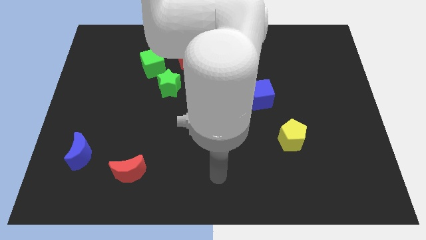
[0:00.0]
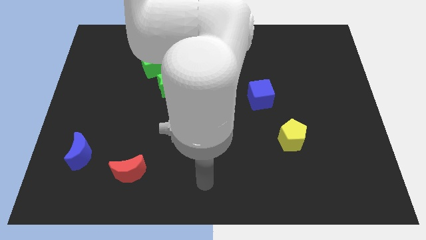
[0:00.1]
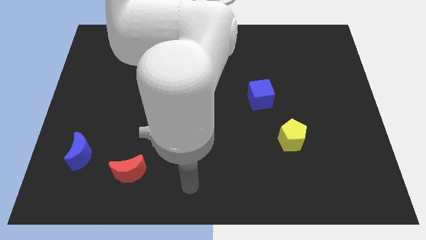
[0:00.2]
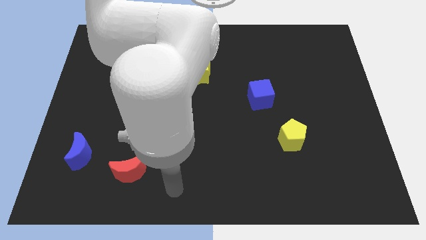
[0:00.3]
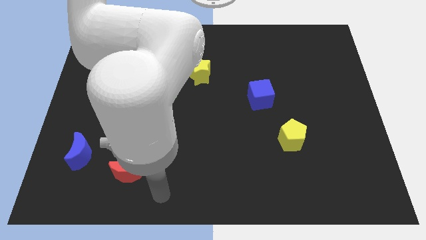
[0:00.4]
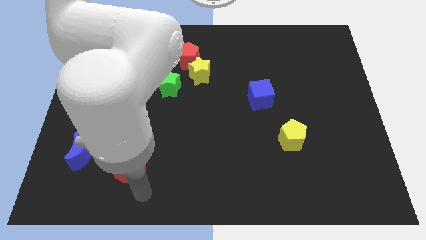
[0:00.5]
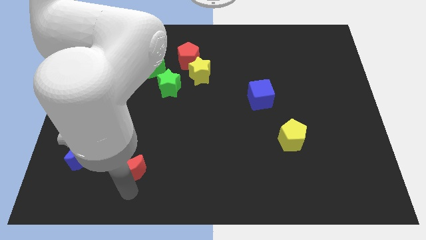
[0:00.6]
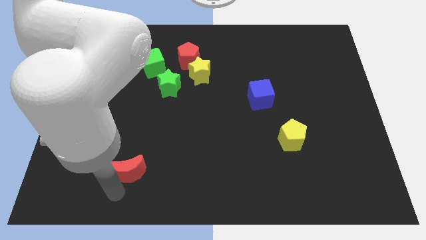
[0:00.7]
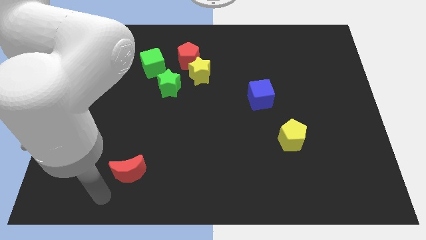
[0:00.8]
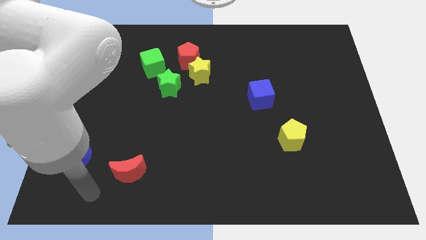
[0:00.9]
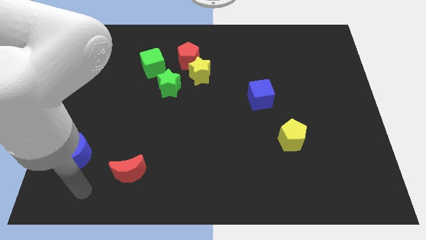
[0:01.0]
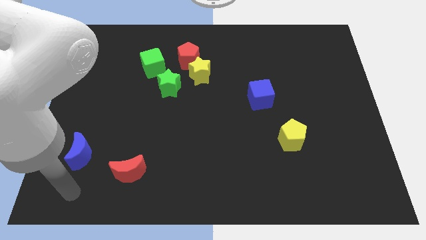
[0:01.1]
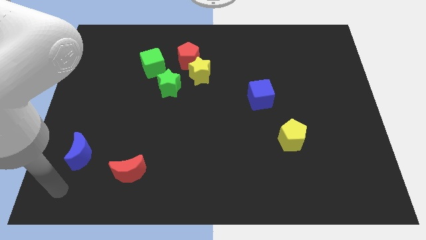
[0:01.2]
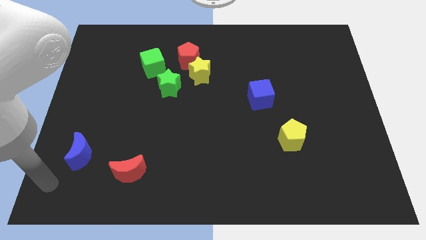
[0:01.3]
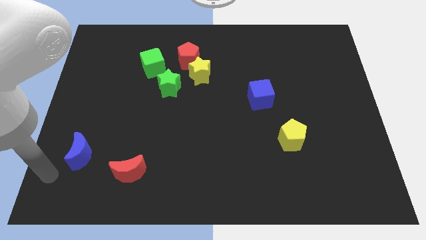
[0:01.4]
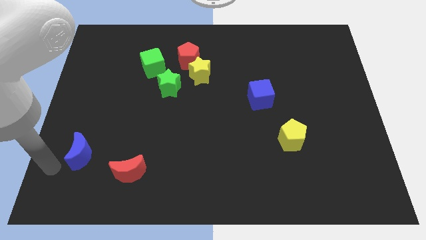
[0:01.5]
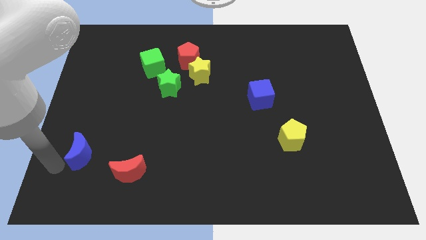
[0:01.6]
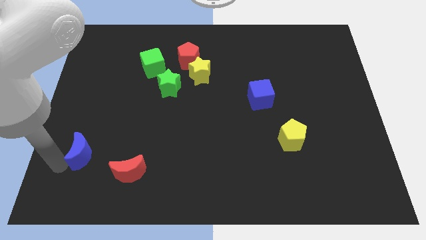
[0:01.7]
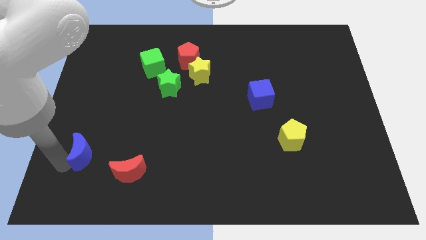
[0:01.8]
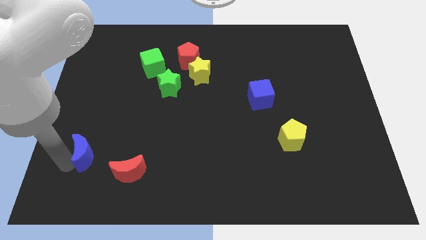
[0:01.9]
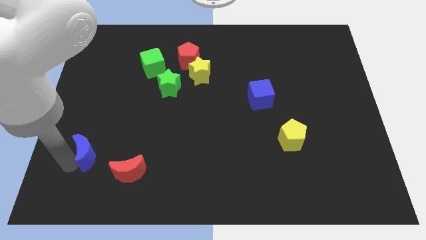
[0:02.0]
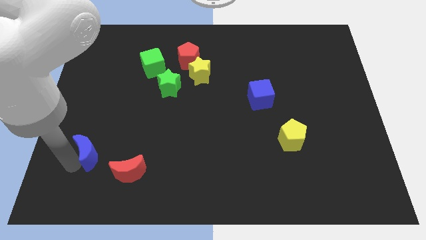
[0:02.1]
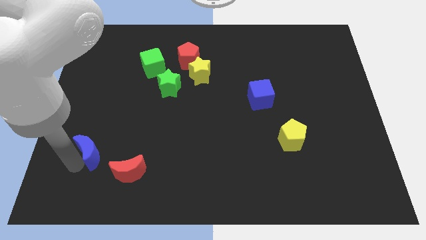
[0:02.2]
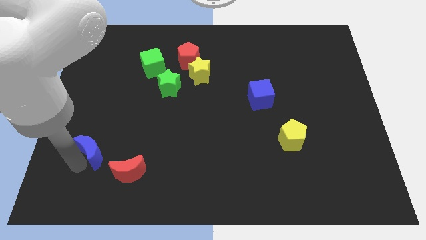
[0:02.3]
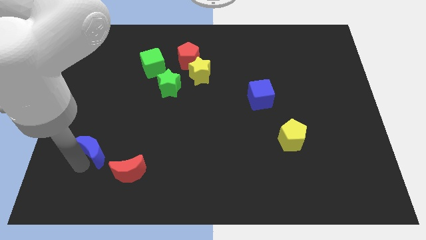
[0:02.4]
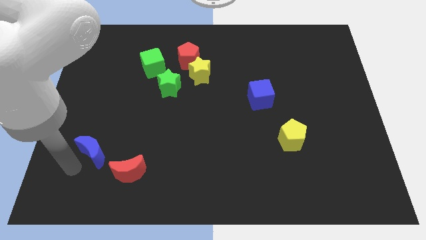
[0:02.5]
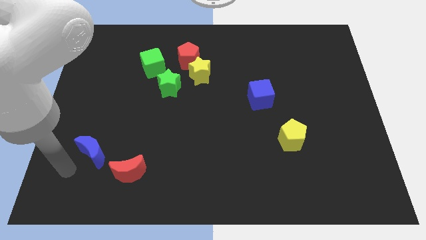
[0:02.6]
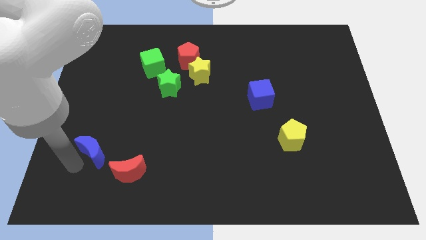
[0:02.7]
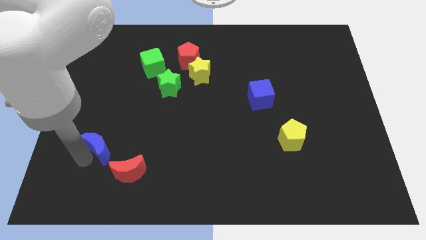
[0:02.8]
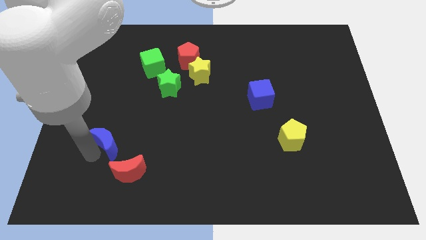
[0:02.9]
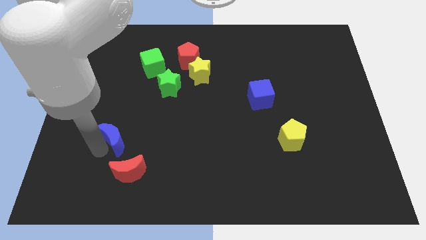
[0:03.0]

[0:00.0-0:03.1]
slightly slide the blue moon upwards and to the right

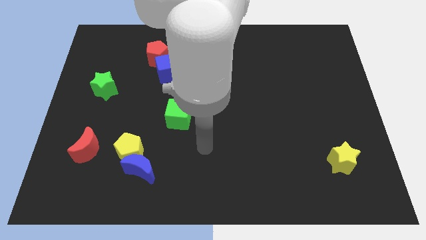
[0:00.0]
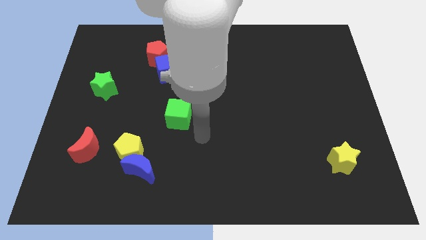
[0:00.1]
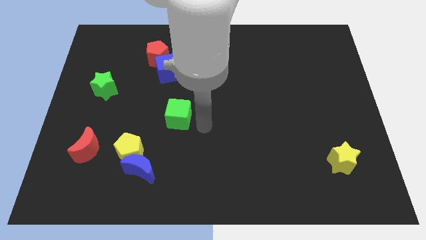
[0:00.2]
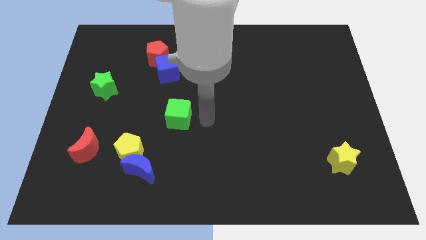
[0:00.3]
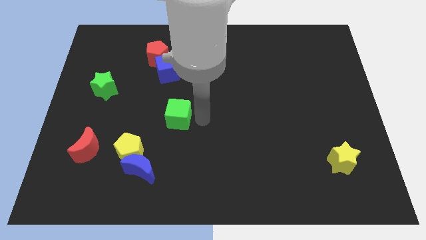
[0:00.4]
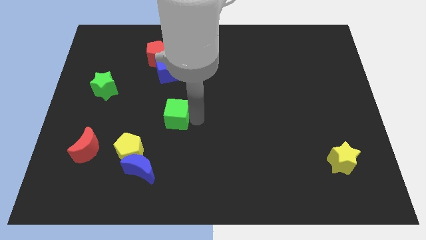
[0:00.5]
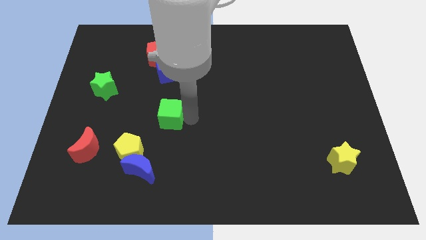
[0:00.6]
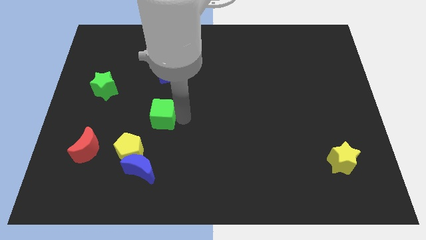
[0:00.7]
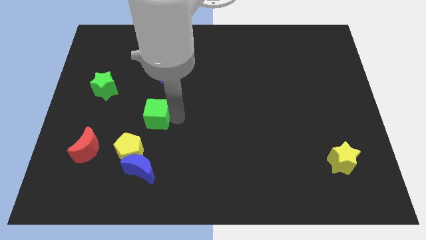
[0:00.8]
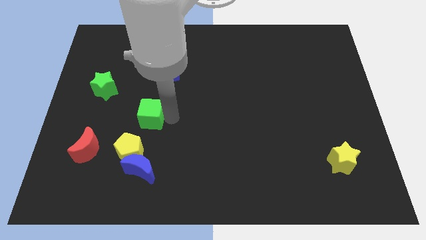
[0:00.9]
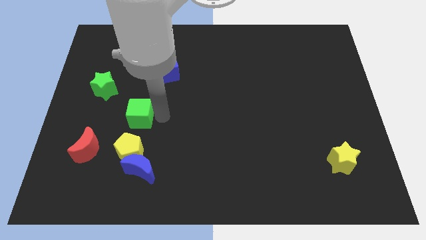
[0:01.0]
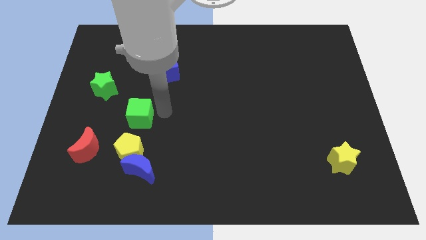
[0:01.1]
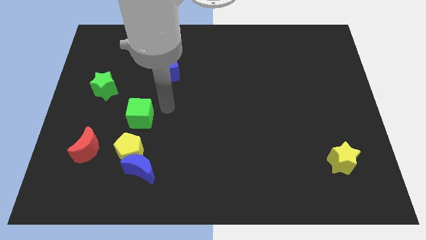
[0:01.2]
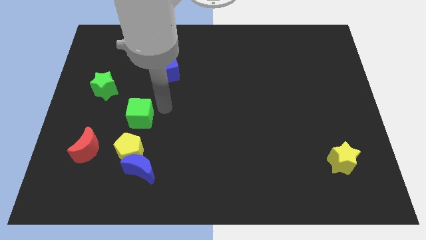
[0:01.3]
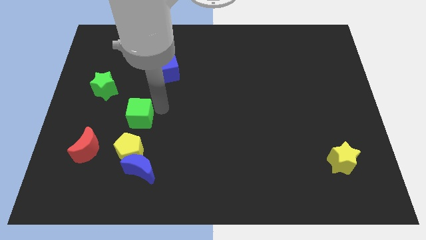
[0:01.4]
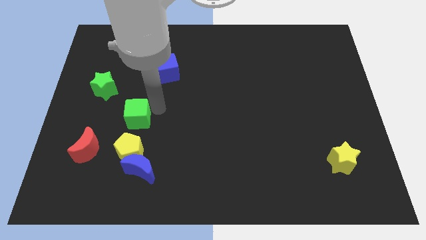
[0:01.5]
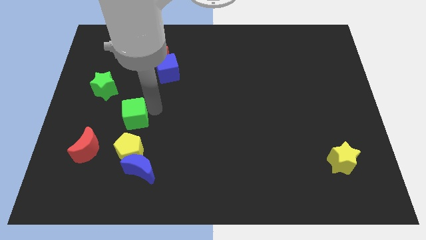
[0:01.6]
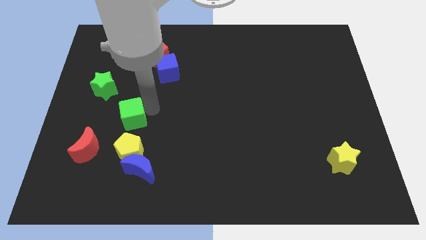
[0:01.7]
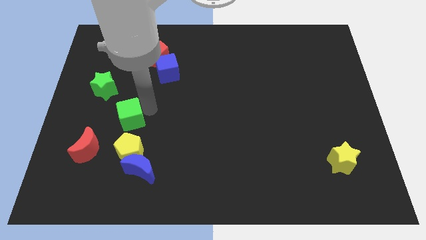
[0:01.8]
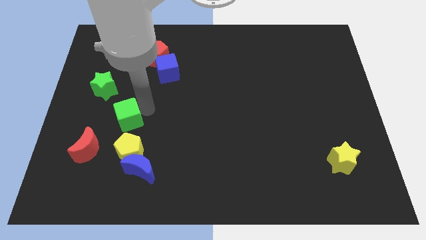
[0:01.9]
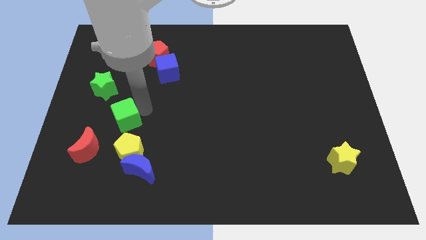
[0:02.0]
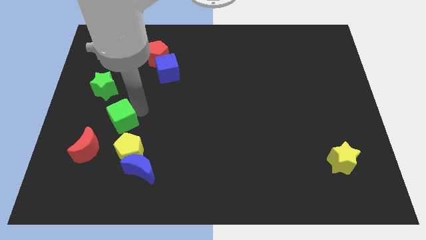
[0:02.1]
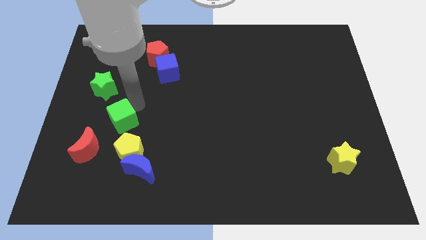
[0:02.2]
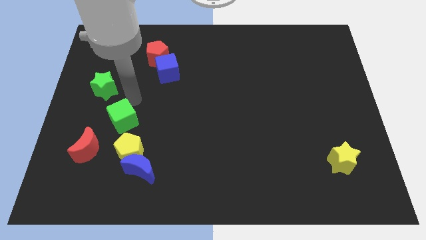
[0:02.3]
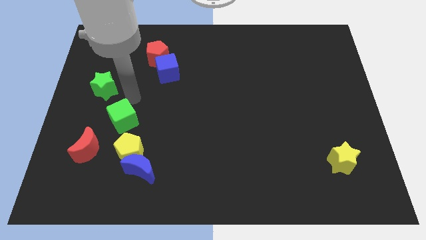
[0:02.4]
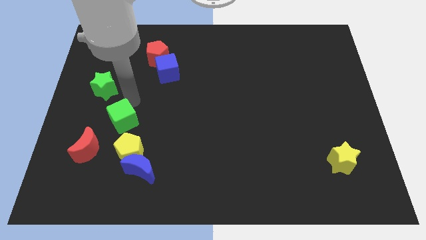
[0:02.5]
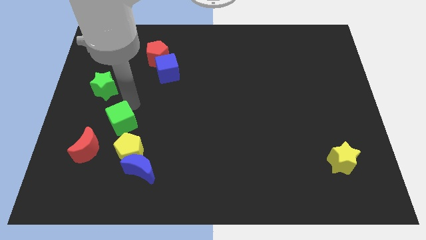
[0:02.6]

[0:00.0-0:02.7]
slightly push the green cube down and to the left diagonally

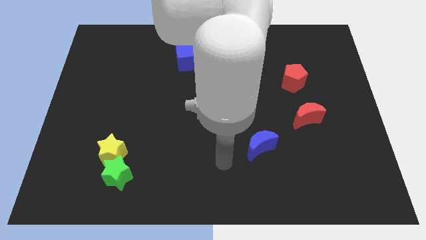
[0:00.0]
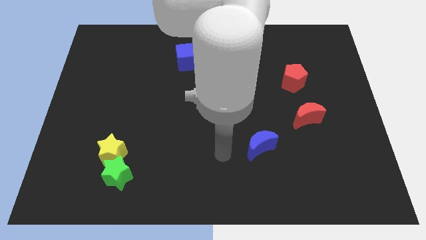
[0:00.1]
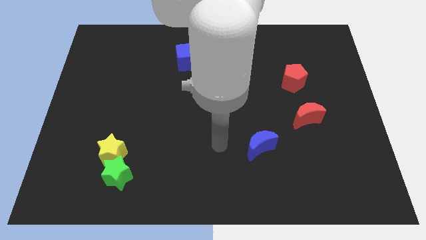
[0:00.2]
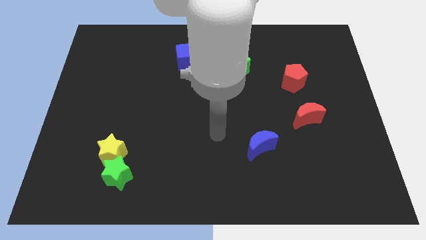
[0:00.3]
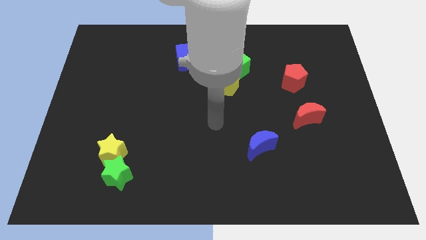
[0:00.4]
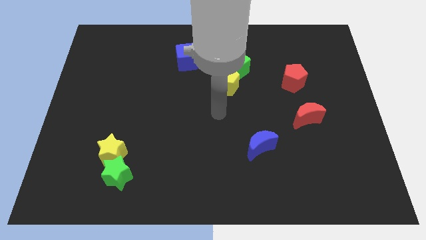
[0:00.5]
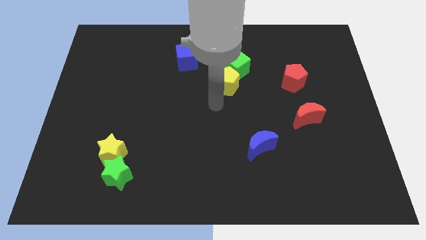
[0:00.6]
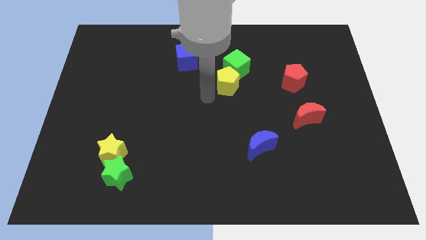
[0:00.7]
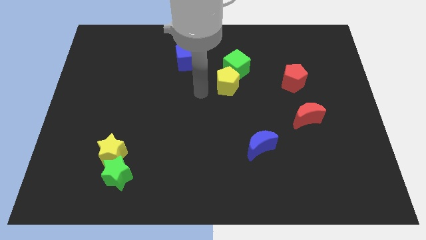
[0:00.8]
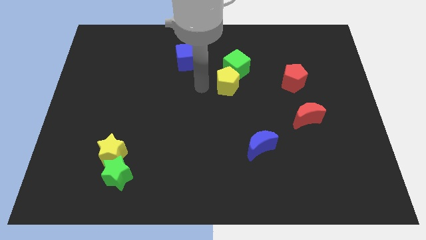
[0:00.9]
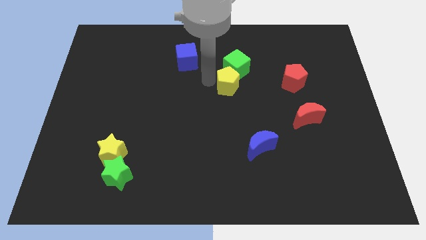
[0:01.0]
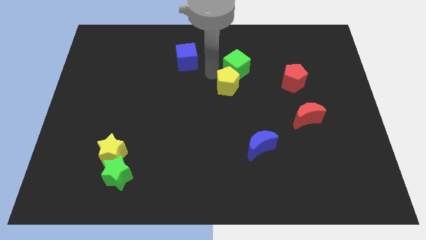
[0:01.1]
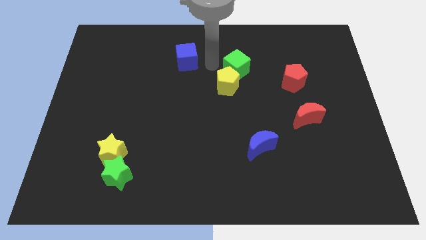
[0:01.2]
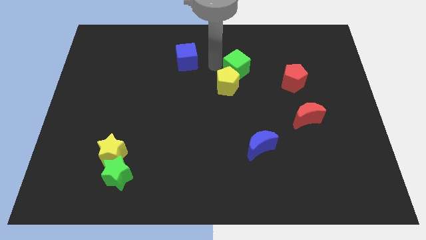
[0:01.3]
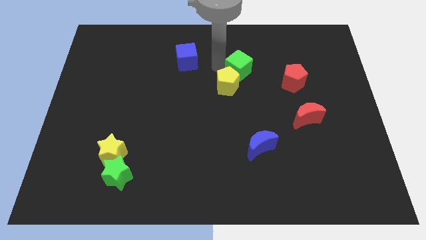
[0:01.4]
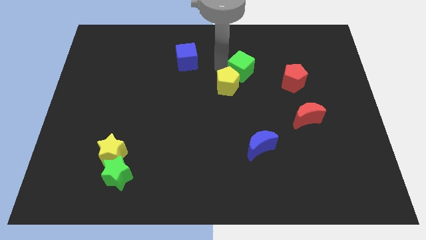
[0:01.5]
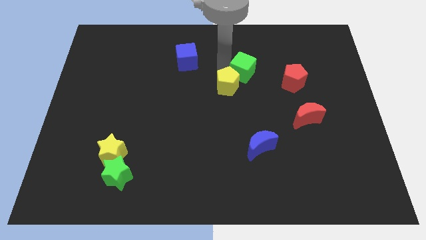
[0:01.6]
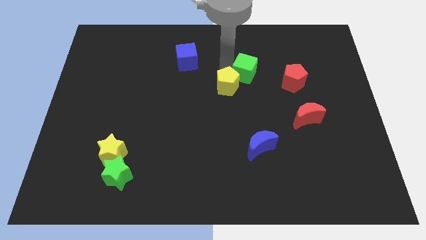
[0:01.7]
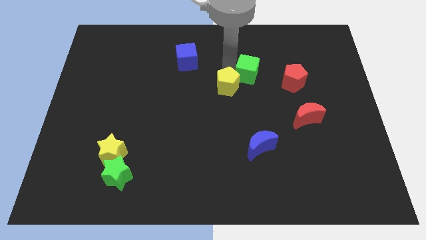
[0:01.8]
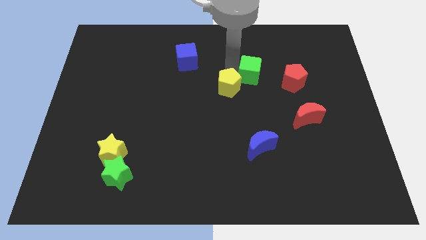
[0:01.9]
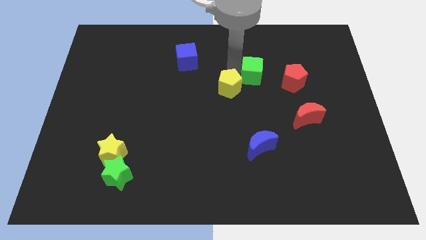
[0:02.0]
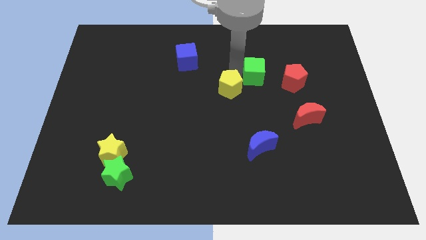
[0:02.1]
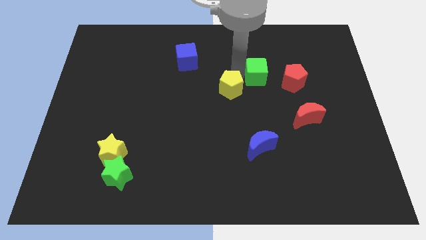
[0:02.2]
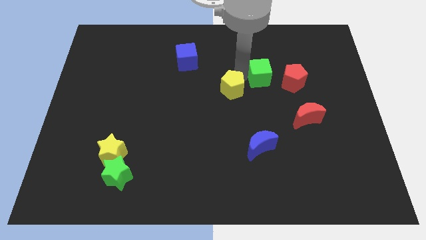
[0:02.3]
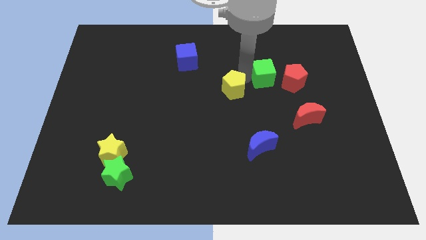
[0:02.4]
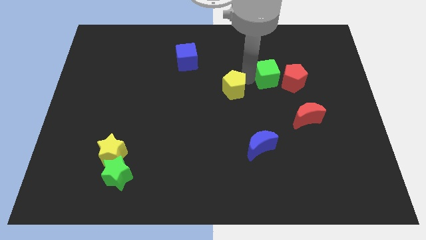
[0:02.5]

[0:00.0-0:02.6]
slightly move the green cube right

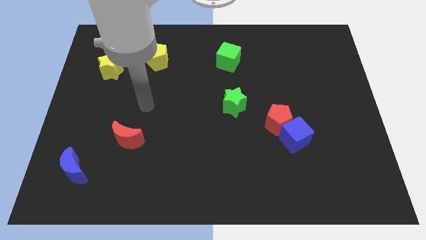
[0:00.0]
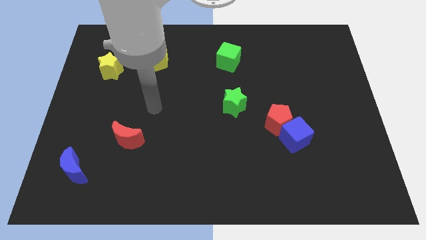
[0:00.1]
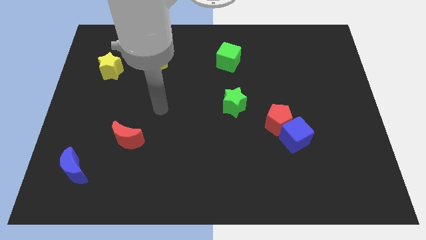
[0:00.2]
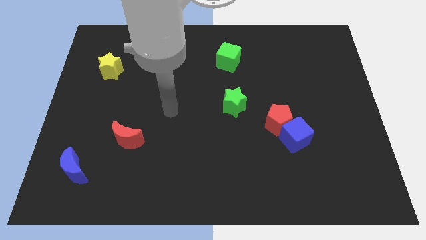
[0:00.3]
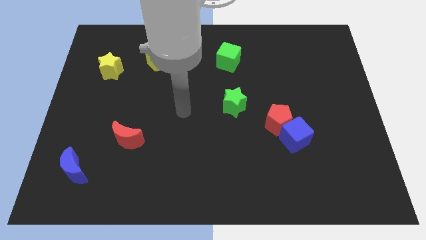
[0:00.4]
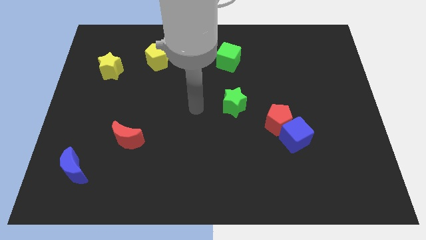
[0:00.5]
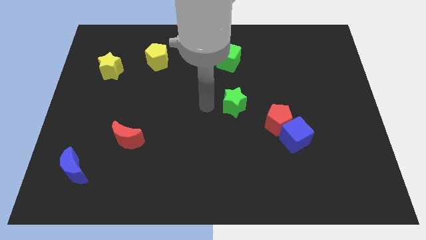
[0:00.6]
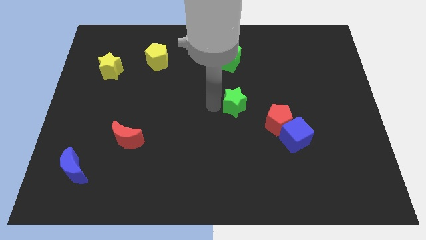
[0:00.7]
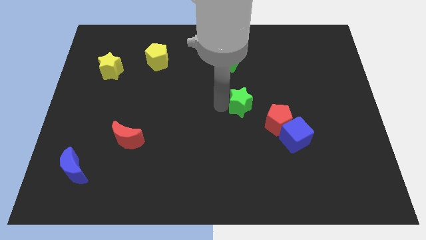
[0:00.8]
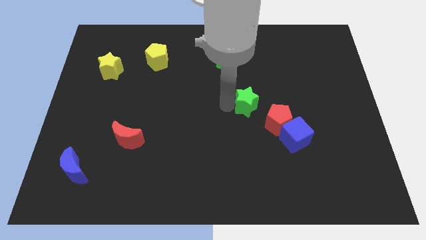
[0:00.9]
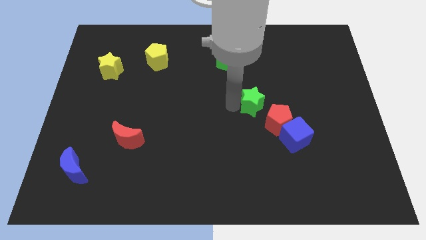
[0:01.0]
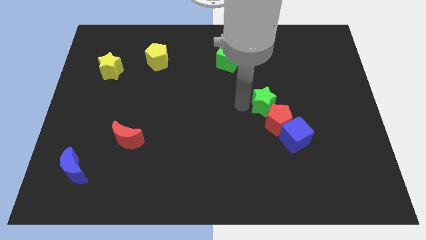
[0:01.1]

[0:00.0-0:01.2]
move the green star right somewhat
